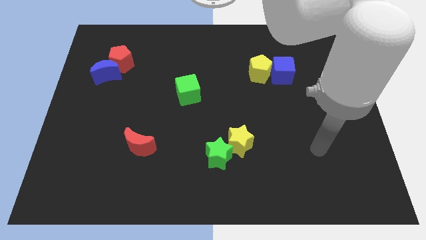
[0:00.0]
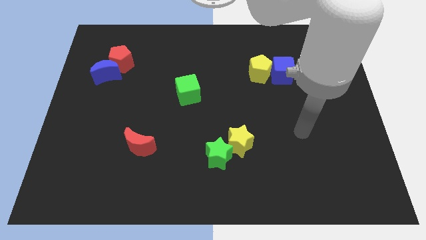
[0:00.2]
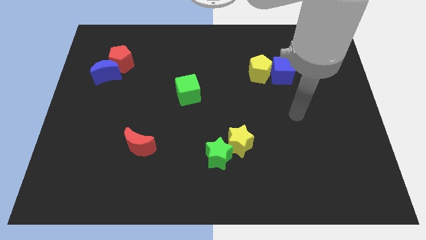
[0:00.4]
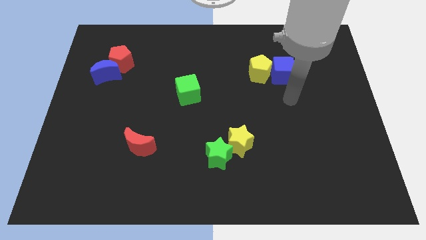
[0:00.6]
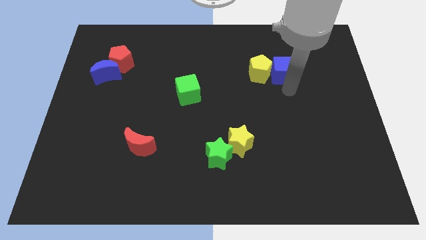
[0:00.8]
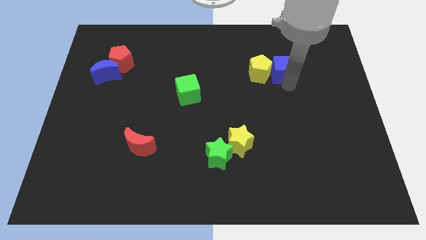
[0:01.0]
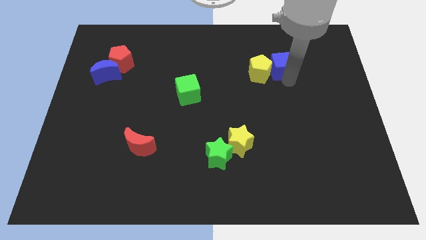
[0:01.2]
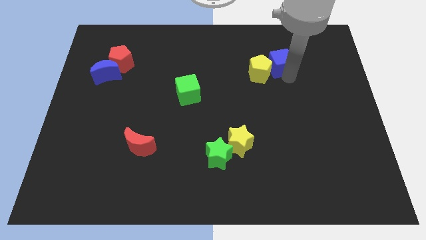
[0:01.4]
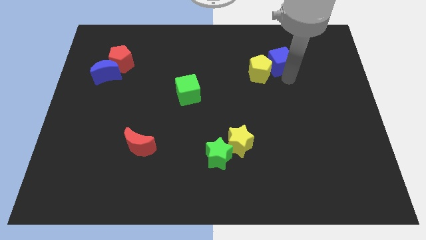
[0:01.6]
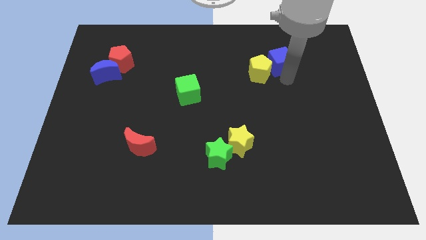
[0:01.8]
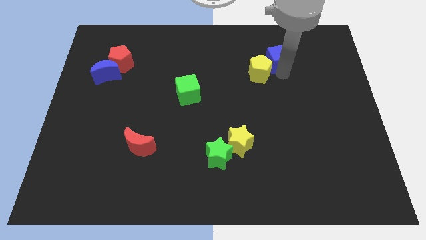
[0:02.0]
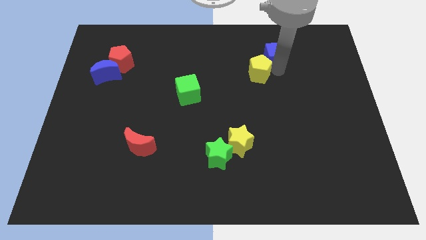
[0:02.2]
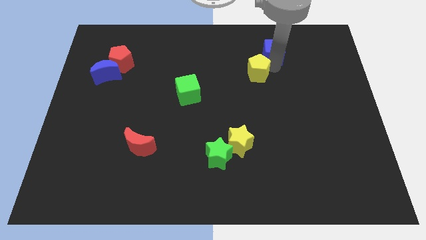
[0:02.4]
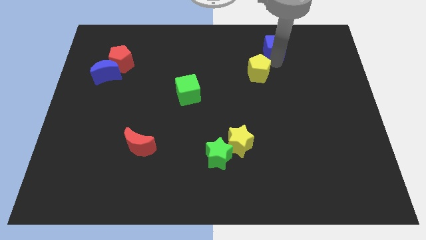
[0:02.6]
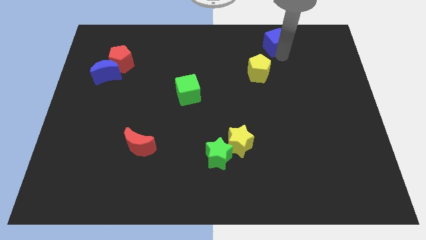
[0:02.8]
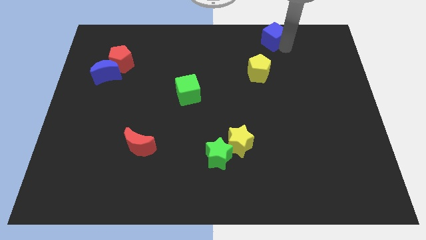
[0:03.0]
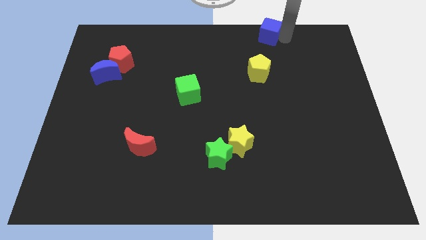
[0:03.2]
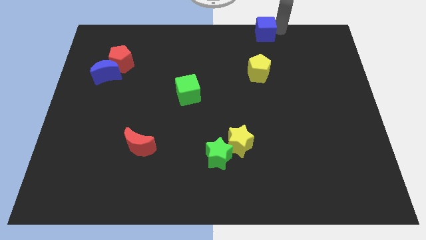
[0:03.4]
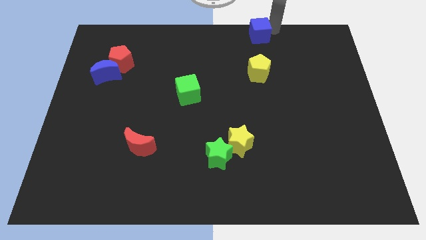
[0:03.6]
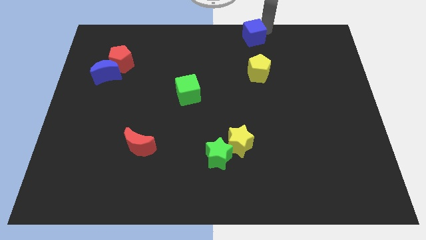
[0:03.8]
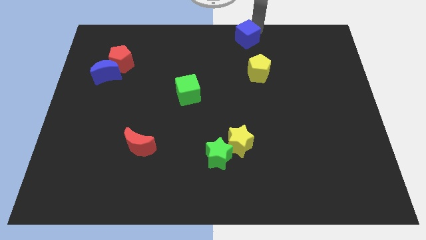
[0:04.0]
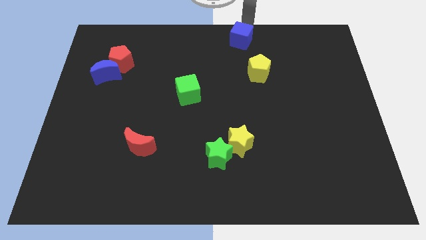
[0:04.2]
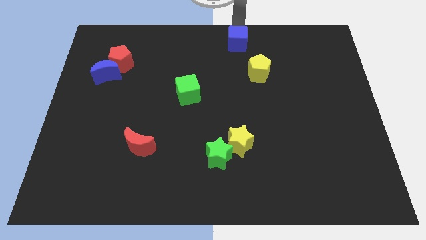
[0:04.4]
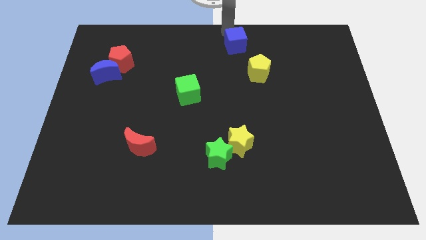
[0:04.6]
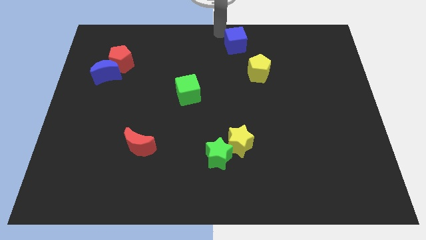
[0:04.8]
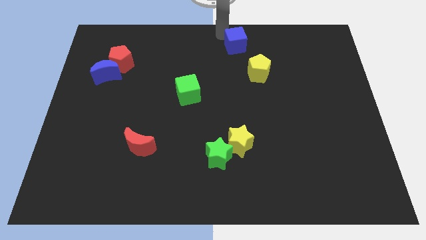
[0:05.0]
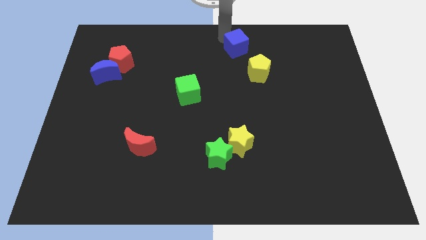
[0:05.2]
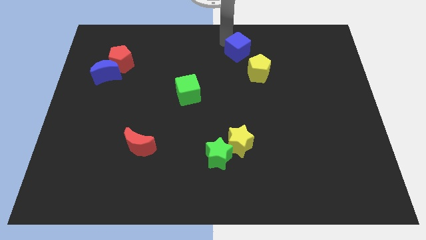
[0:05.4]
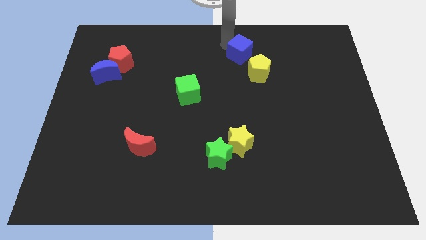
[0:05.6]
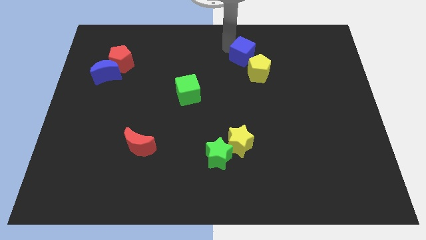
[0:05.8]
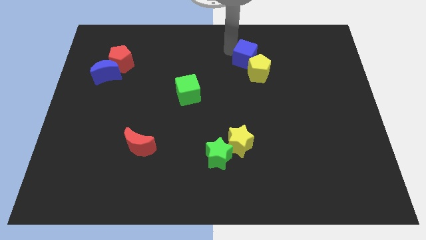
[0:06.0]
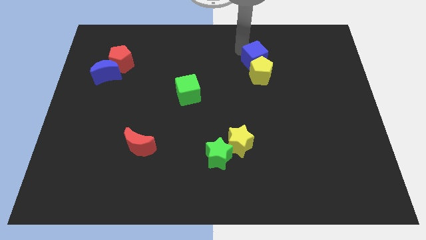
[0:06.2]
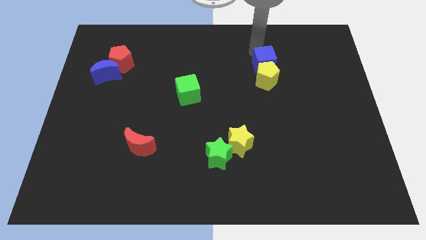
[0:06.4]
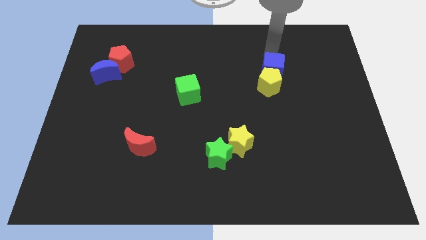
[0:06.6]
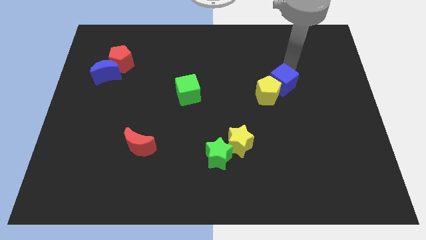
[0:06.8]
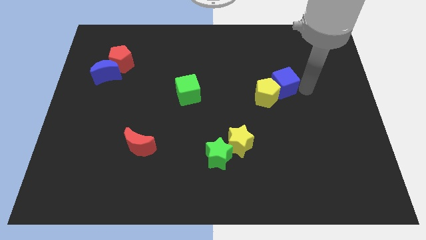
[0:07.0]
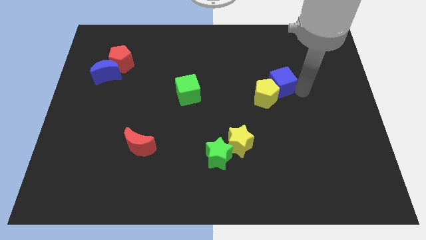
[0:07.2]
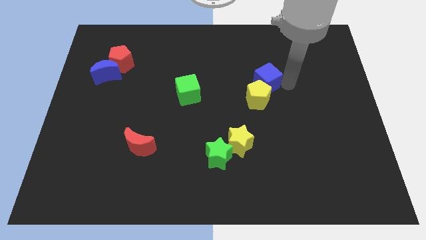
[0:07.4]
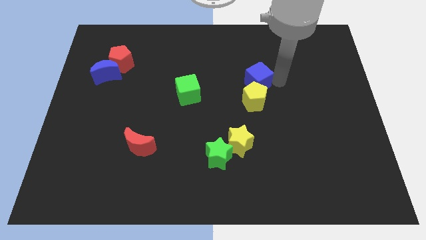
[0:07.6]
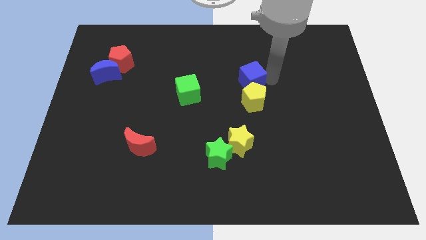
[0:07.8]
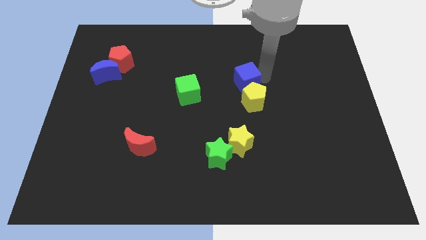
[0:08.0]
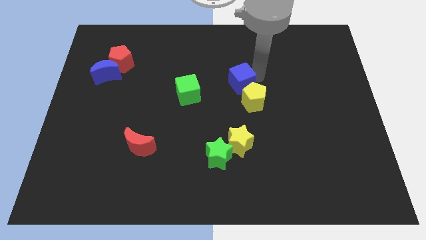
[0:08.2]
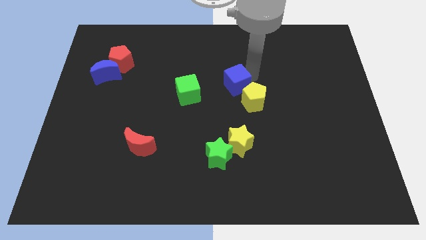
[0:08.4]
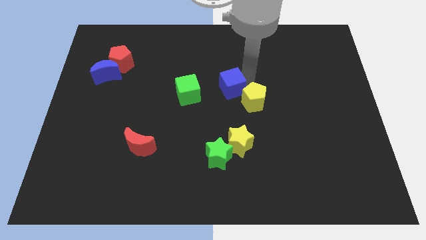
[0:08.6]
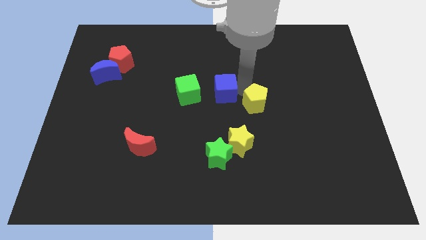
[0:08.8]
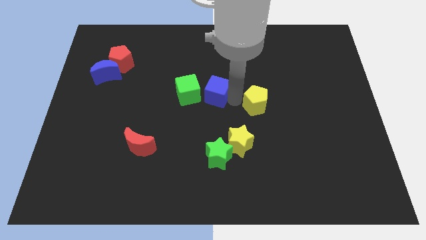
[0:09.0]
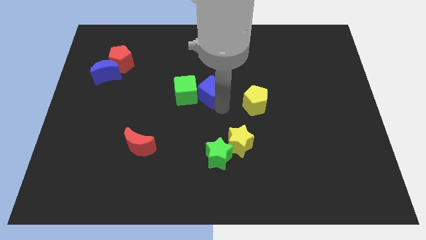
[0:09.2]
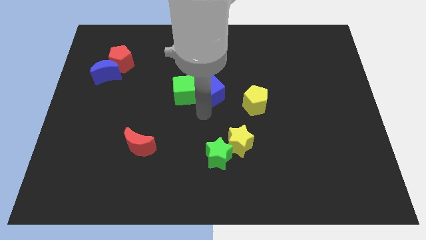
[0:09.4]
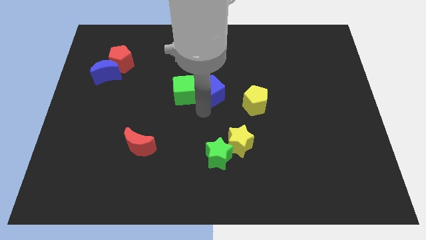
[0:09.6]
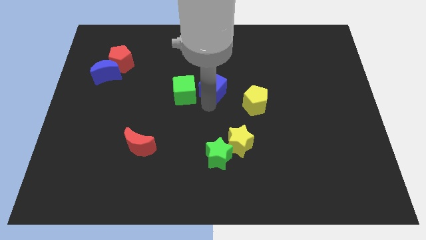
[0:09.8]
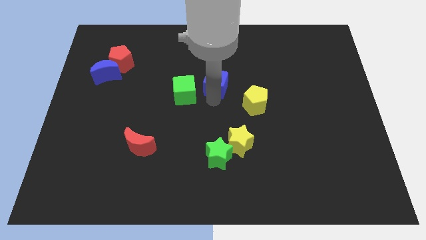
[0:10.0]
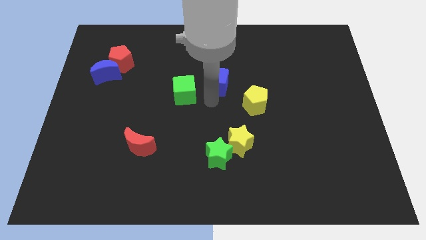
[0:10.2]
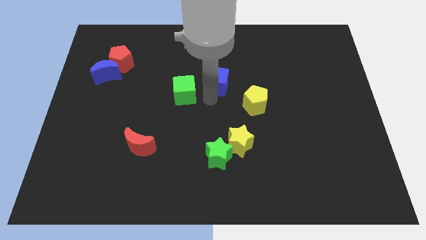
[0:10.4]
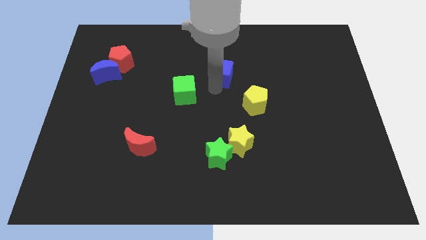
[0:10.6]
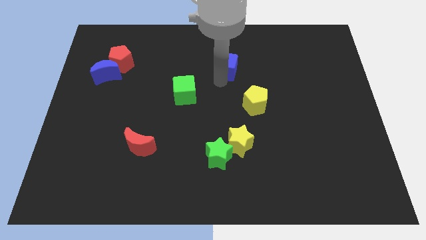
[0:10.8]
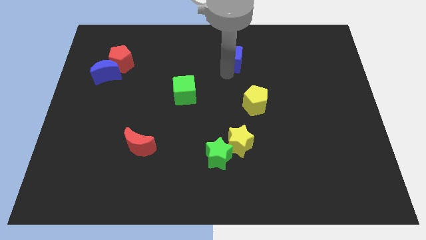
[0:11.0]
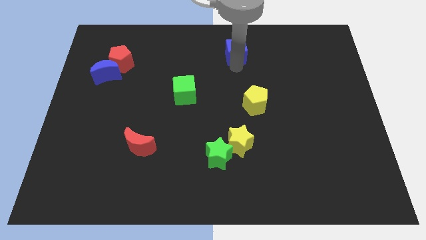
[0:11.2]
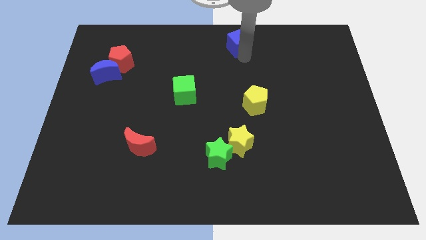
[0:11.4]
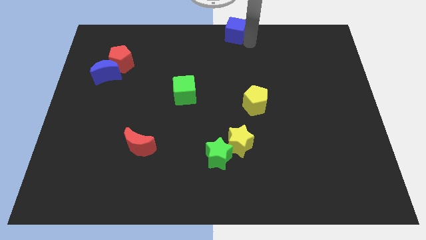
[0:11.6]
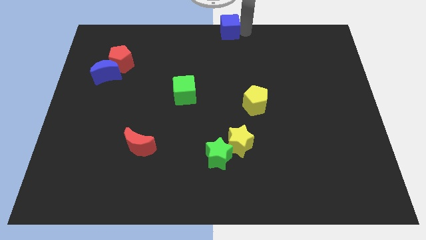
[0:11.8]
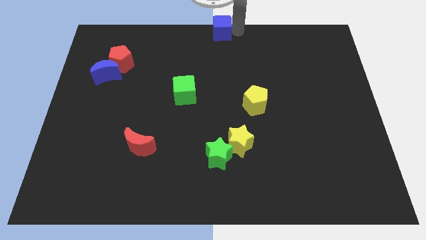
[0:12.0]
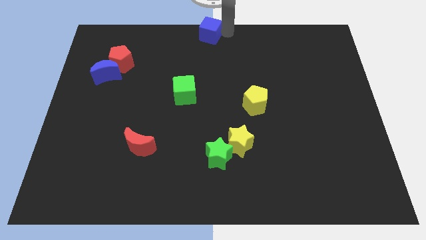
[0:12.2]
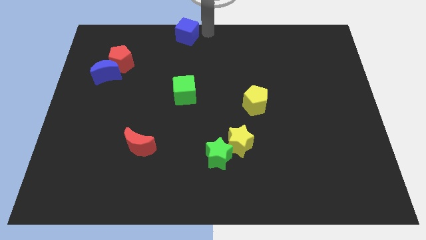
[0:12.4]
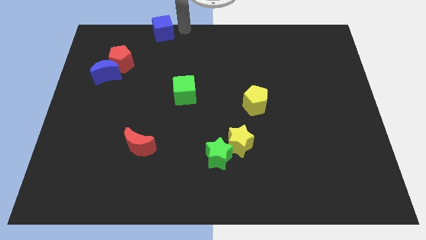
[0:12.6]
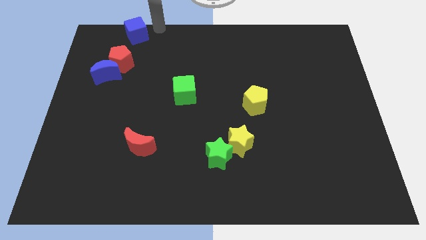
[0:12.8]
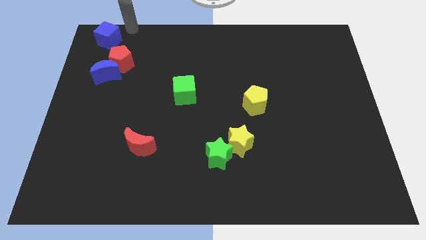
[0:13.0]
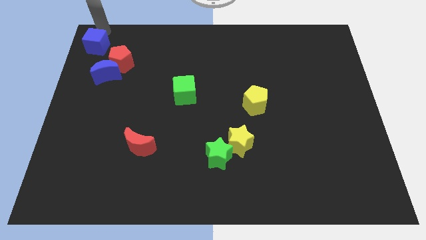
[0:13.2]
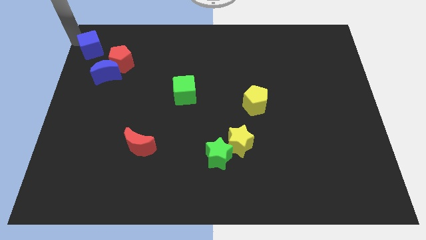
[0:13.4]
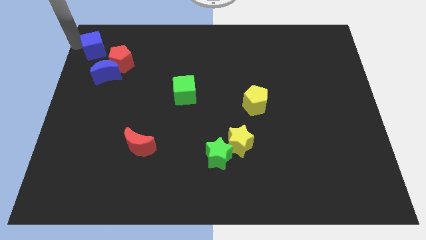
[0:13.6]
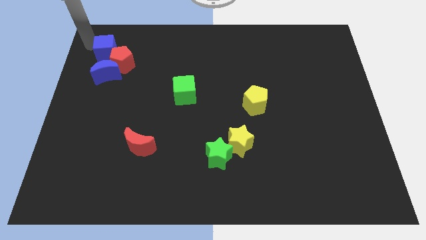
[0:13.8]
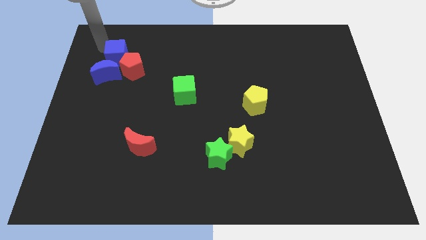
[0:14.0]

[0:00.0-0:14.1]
move the blue cube to the left

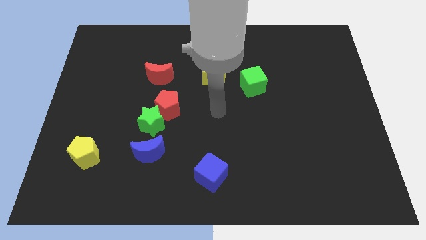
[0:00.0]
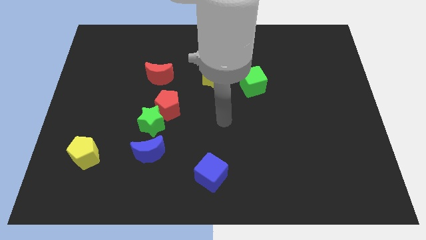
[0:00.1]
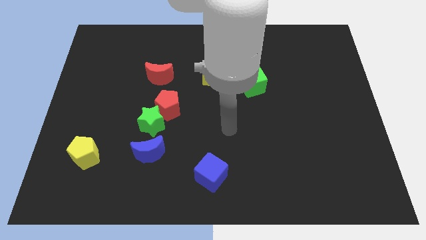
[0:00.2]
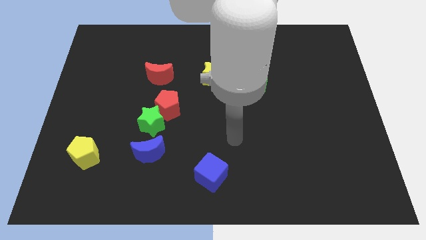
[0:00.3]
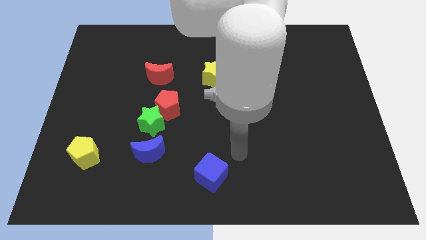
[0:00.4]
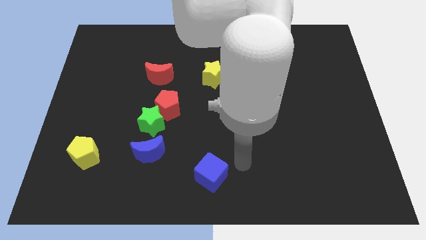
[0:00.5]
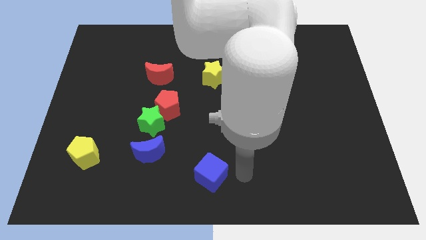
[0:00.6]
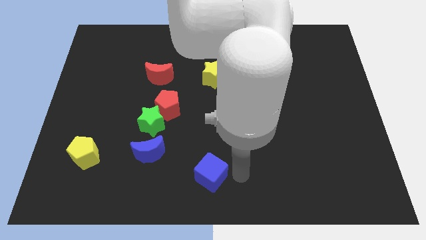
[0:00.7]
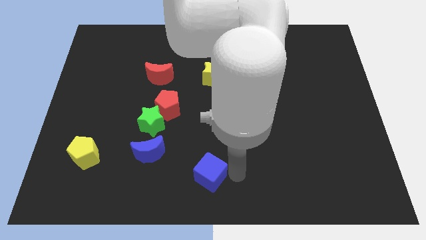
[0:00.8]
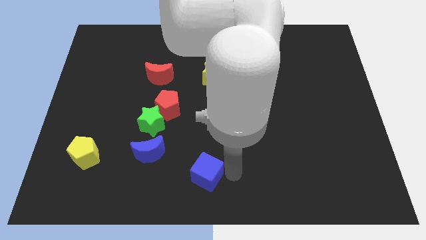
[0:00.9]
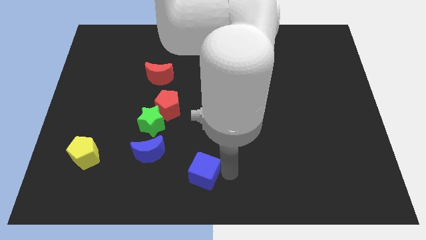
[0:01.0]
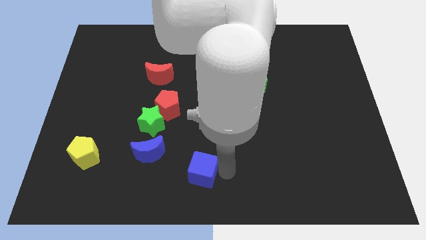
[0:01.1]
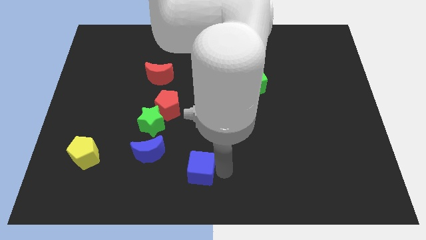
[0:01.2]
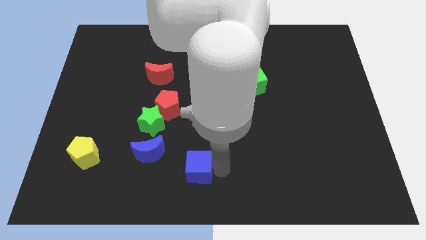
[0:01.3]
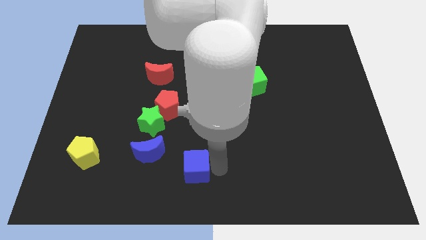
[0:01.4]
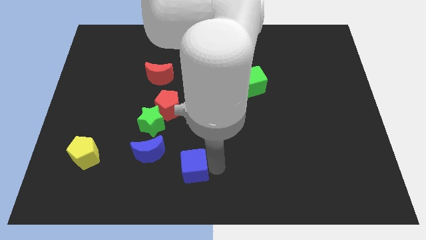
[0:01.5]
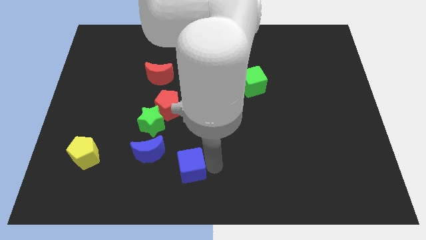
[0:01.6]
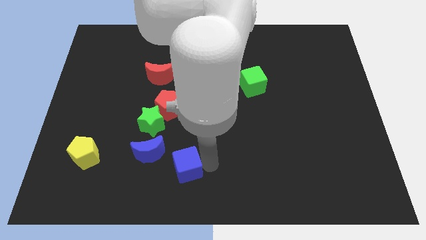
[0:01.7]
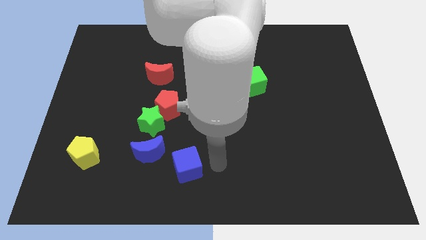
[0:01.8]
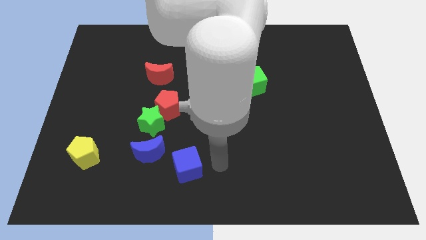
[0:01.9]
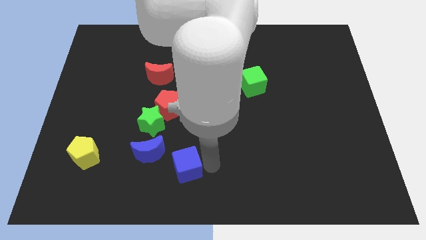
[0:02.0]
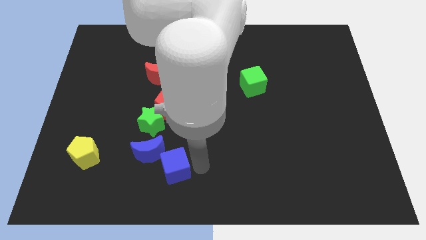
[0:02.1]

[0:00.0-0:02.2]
push the blue cube somewhat left
